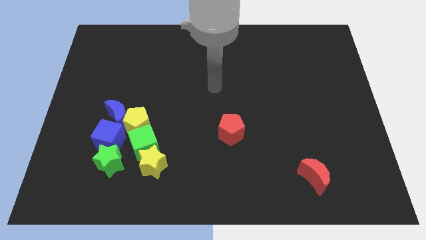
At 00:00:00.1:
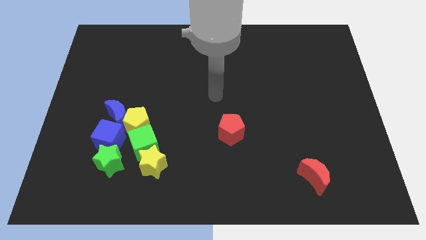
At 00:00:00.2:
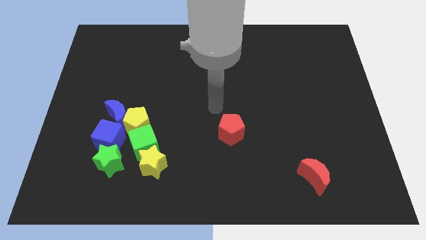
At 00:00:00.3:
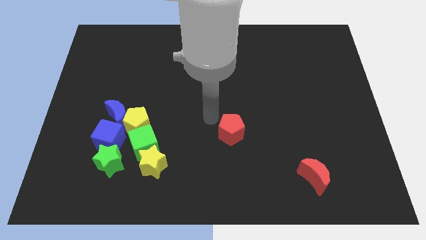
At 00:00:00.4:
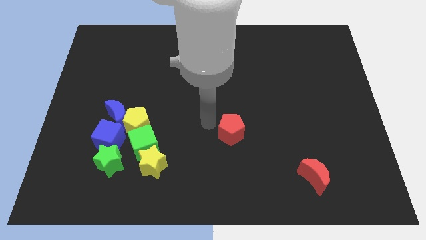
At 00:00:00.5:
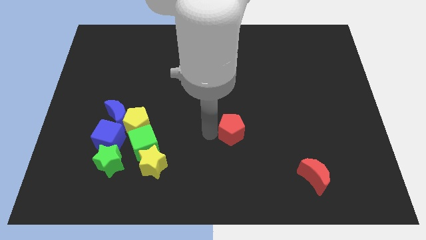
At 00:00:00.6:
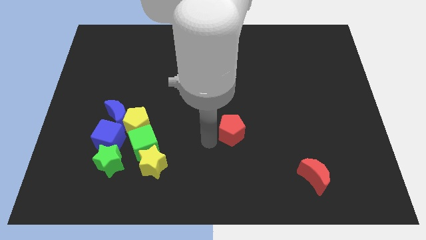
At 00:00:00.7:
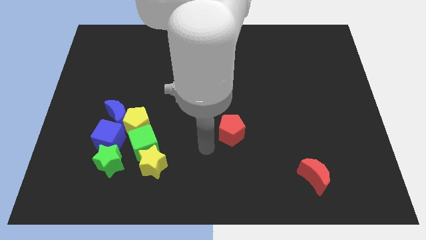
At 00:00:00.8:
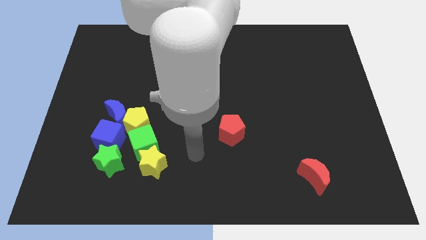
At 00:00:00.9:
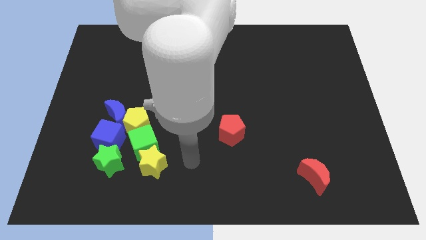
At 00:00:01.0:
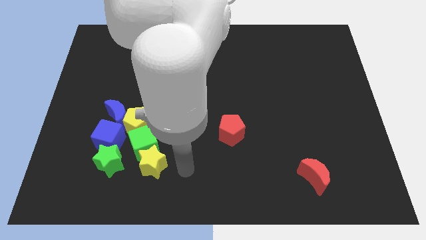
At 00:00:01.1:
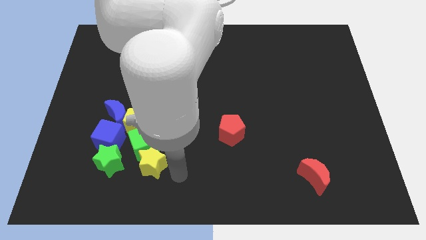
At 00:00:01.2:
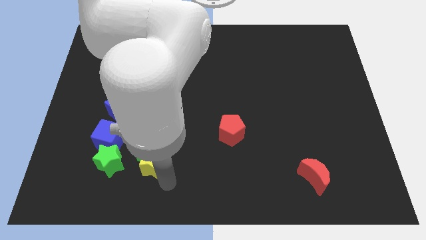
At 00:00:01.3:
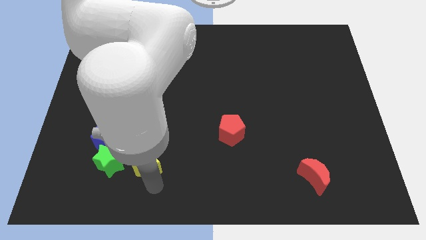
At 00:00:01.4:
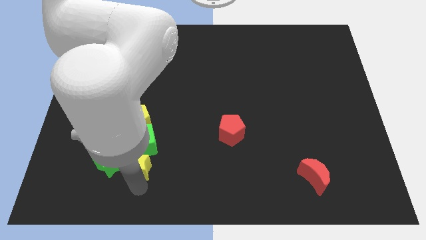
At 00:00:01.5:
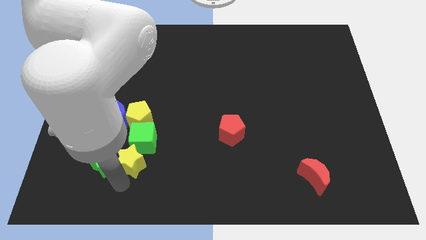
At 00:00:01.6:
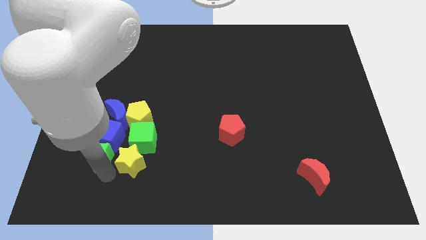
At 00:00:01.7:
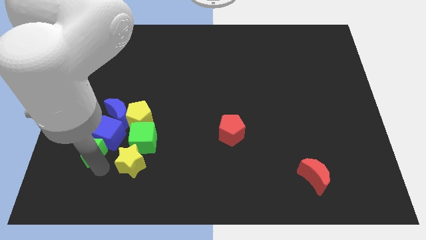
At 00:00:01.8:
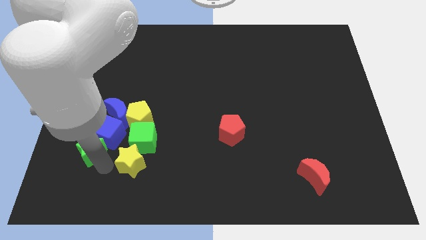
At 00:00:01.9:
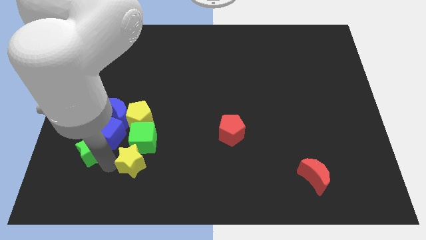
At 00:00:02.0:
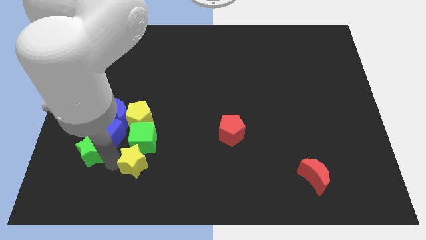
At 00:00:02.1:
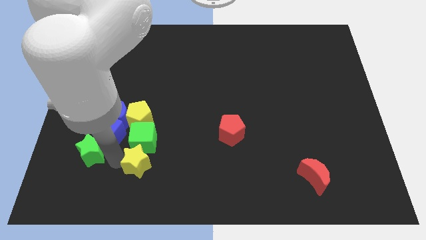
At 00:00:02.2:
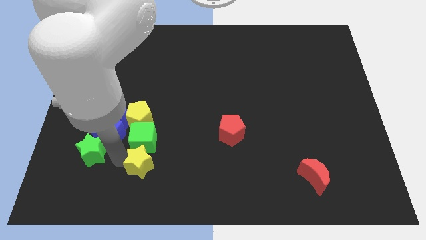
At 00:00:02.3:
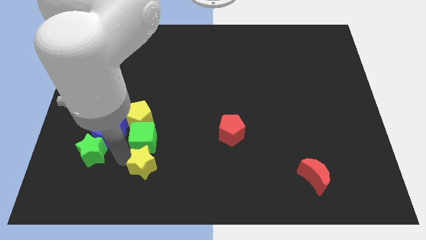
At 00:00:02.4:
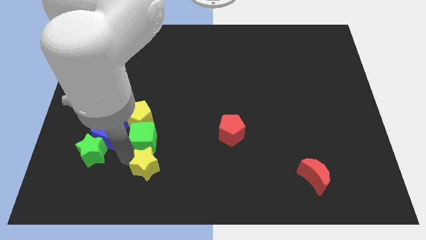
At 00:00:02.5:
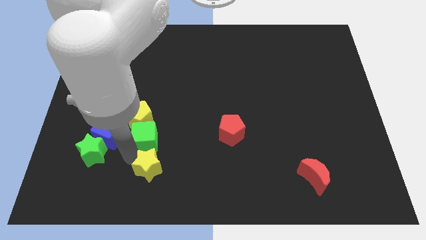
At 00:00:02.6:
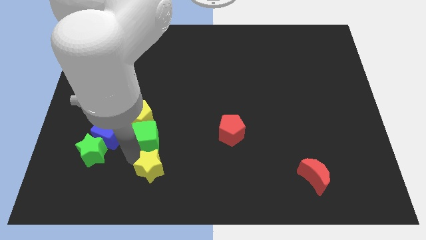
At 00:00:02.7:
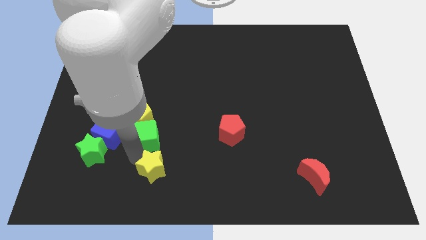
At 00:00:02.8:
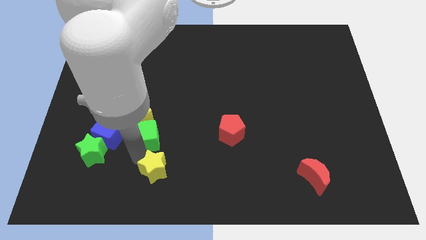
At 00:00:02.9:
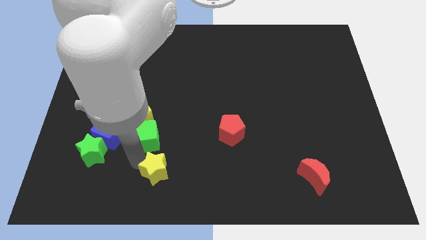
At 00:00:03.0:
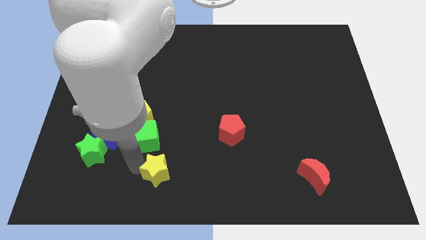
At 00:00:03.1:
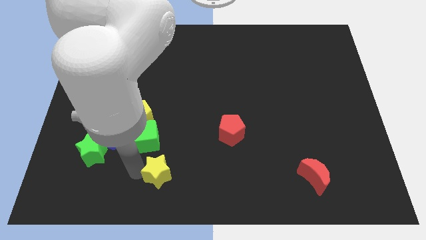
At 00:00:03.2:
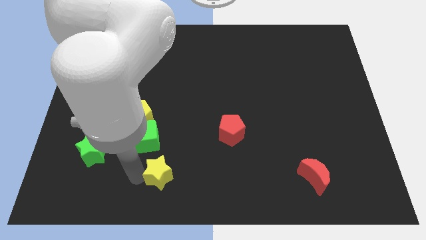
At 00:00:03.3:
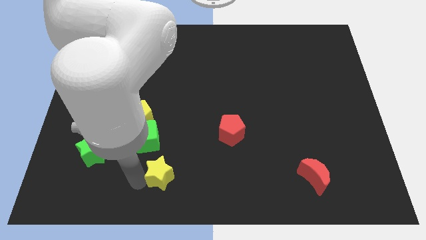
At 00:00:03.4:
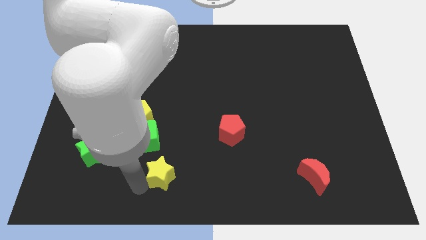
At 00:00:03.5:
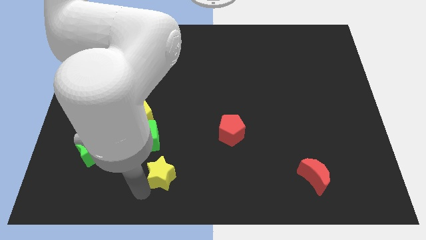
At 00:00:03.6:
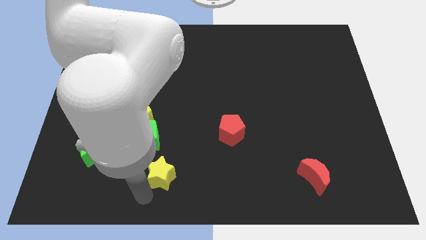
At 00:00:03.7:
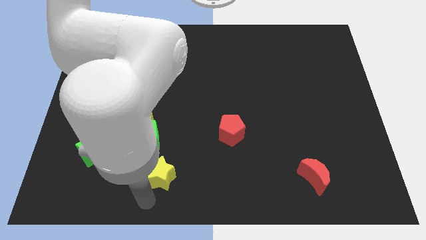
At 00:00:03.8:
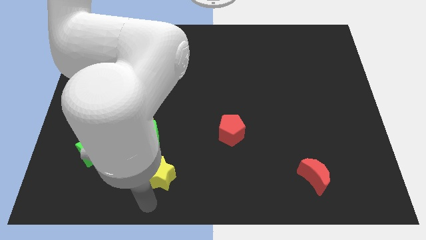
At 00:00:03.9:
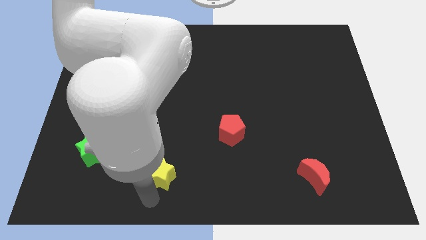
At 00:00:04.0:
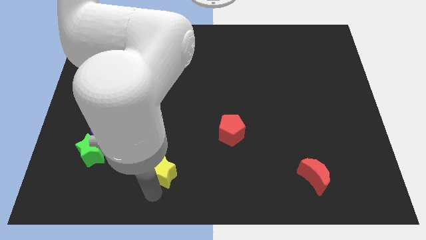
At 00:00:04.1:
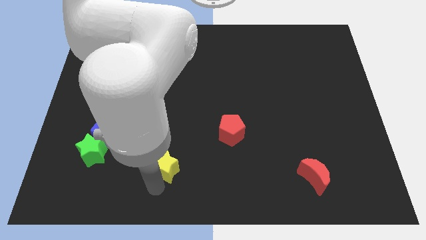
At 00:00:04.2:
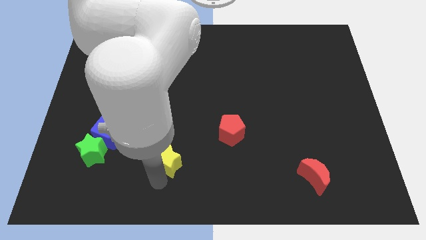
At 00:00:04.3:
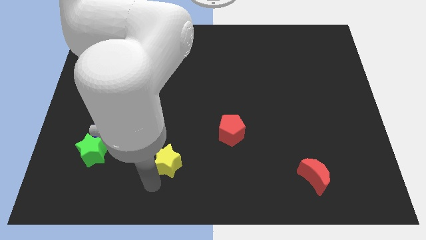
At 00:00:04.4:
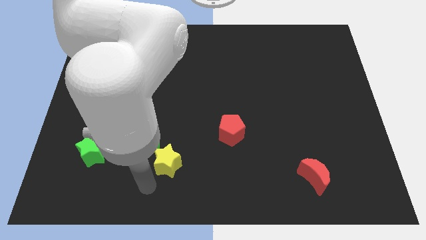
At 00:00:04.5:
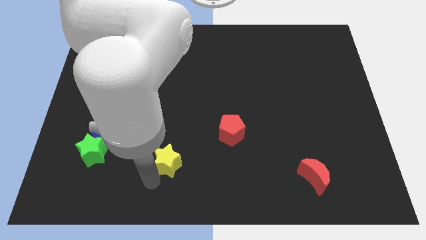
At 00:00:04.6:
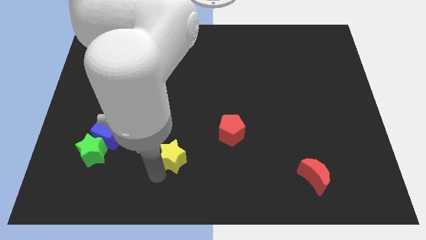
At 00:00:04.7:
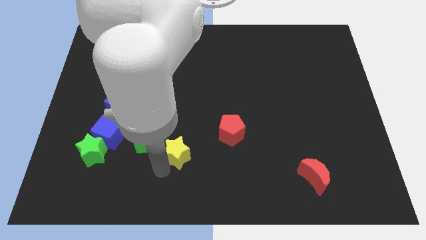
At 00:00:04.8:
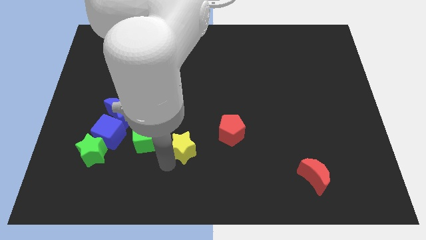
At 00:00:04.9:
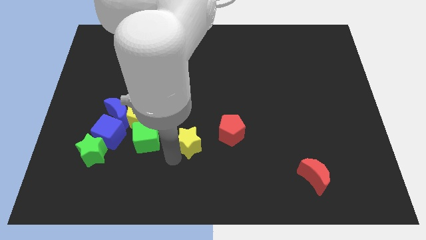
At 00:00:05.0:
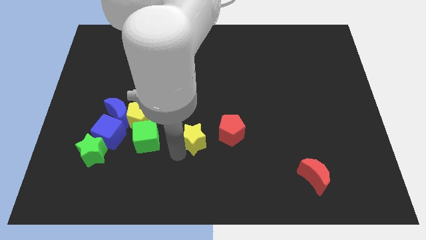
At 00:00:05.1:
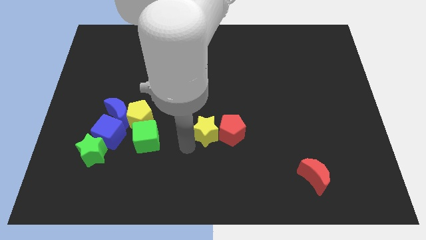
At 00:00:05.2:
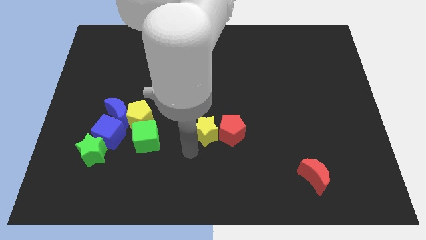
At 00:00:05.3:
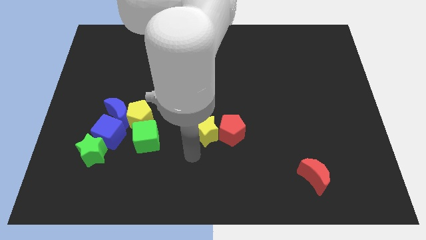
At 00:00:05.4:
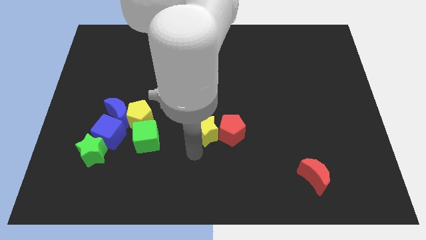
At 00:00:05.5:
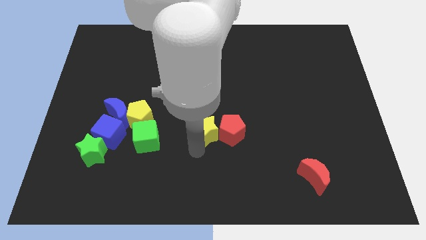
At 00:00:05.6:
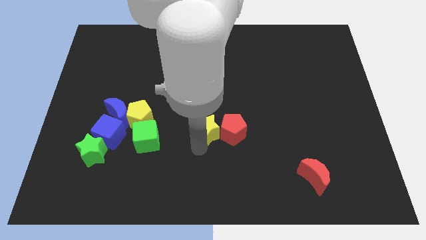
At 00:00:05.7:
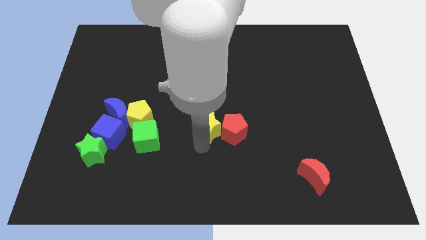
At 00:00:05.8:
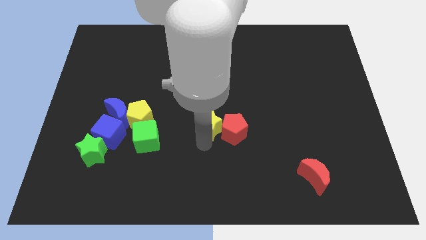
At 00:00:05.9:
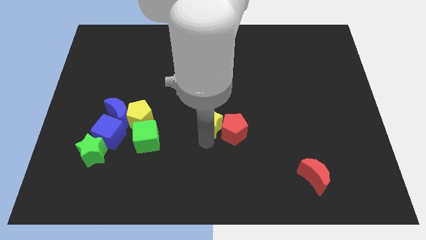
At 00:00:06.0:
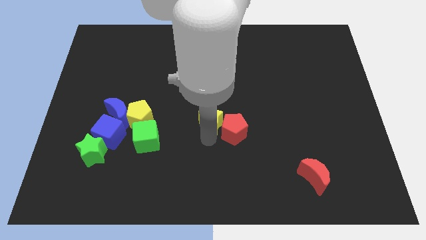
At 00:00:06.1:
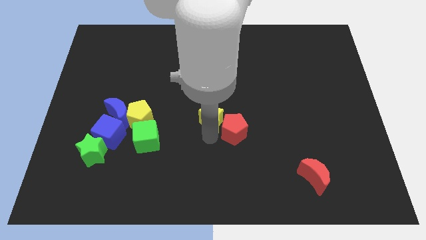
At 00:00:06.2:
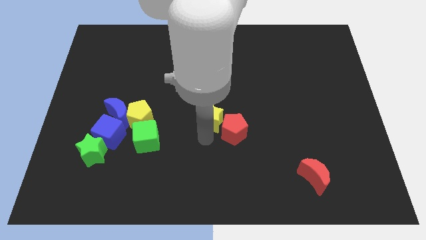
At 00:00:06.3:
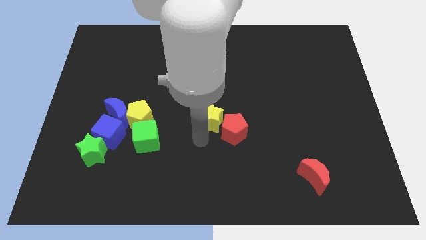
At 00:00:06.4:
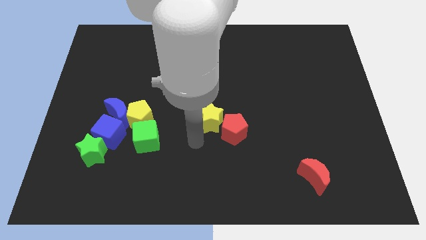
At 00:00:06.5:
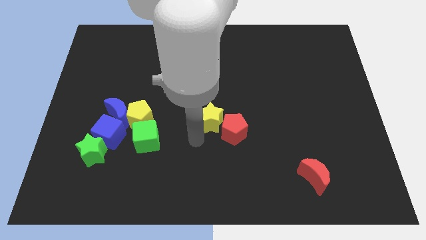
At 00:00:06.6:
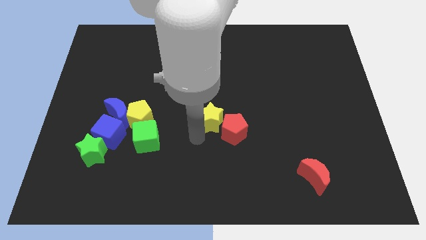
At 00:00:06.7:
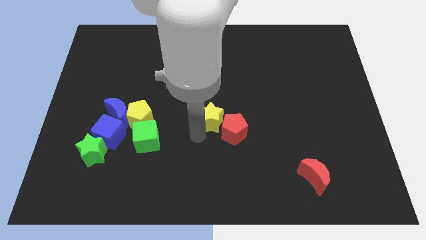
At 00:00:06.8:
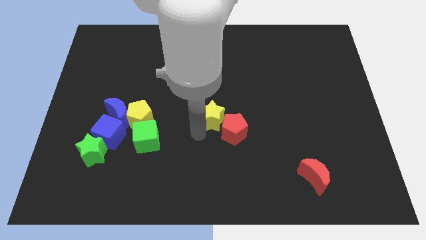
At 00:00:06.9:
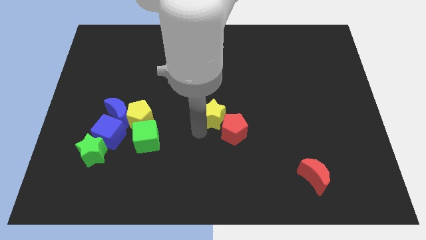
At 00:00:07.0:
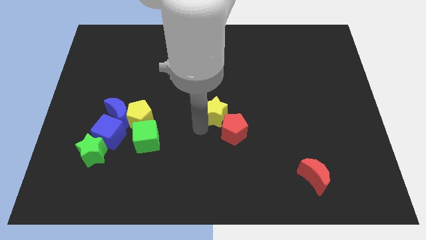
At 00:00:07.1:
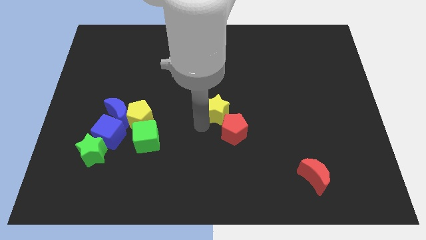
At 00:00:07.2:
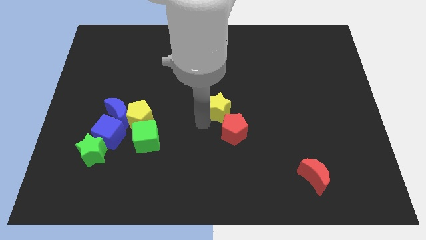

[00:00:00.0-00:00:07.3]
push the yellow star up and then to the right

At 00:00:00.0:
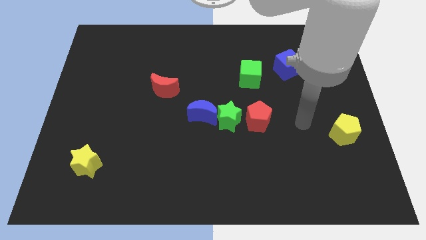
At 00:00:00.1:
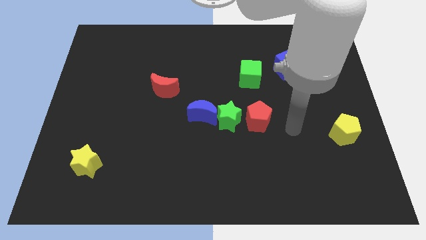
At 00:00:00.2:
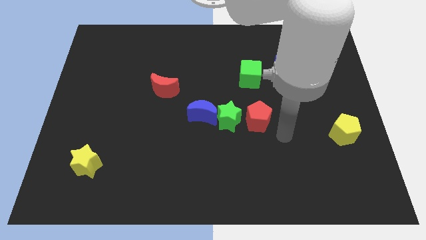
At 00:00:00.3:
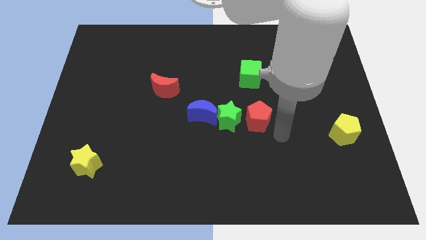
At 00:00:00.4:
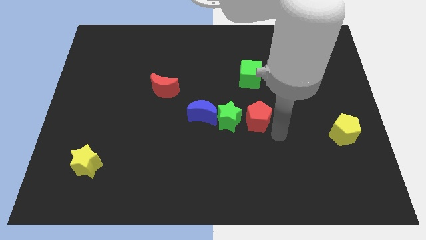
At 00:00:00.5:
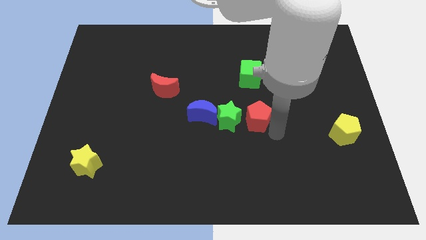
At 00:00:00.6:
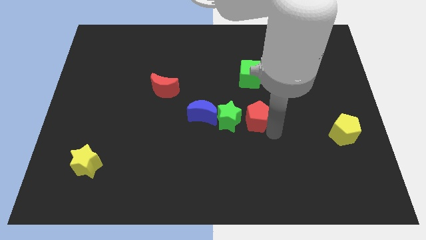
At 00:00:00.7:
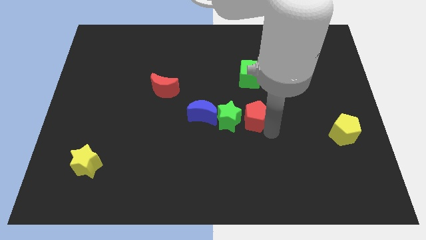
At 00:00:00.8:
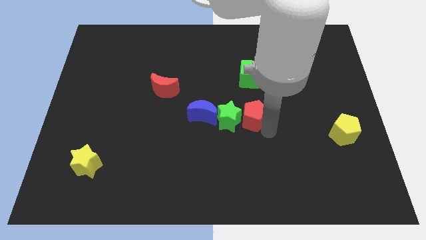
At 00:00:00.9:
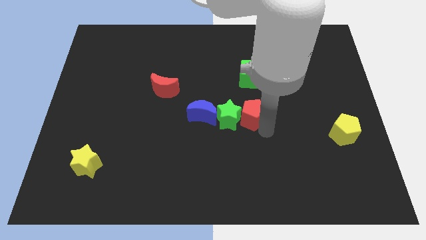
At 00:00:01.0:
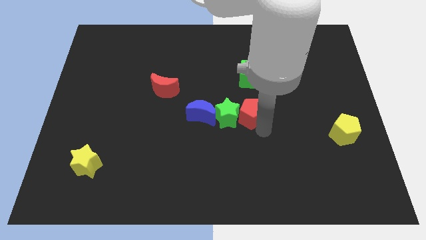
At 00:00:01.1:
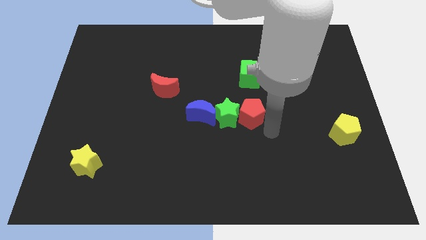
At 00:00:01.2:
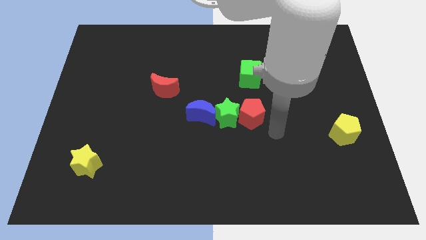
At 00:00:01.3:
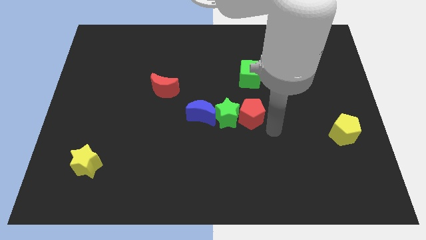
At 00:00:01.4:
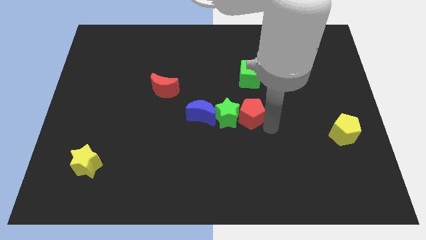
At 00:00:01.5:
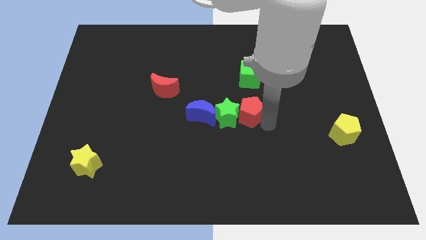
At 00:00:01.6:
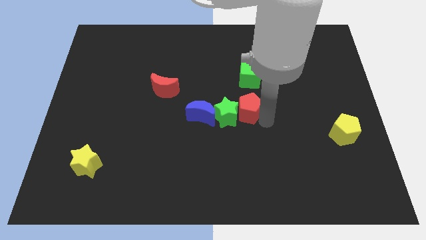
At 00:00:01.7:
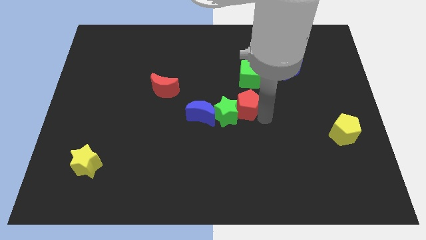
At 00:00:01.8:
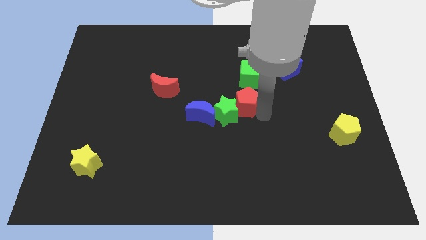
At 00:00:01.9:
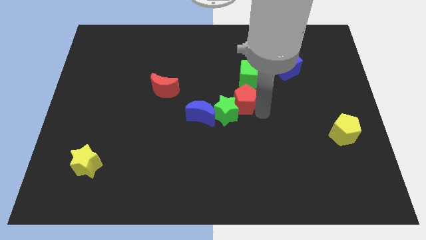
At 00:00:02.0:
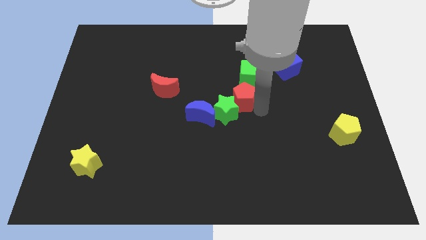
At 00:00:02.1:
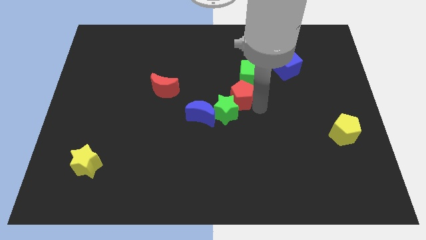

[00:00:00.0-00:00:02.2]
slightly slide the red pentagon upwards and then left
